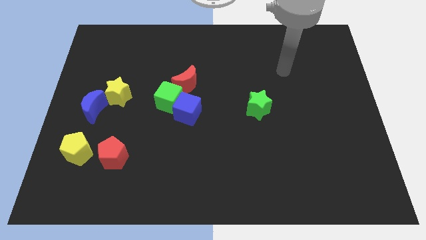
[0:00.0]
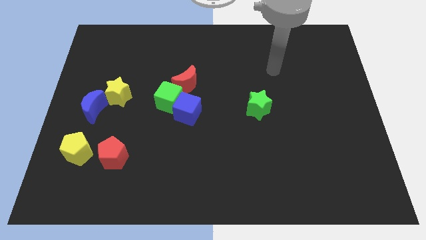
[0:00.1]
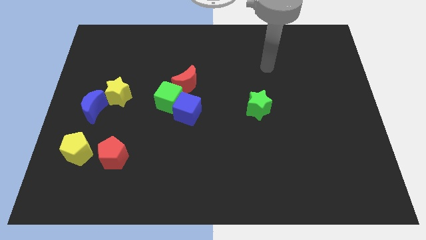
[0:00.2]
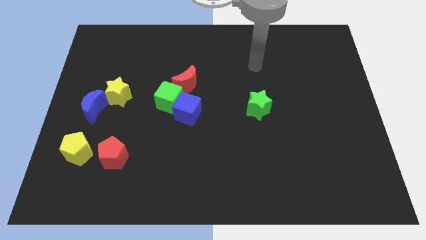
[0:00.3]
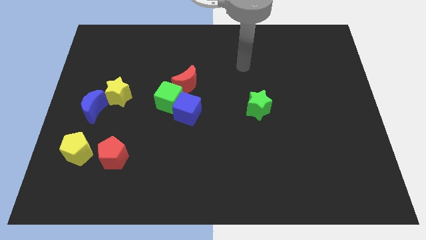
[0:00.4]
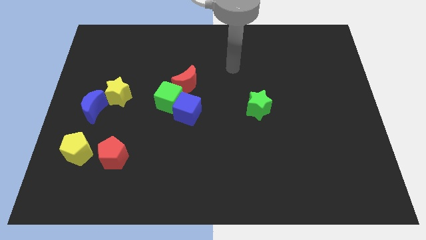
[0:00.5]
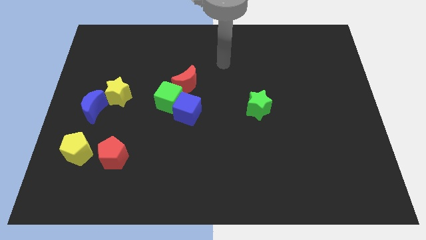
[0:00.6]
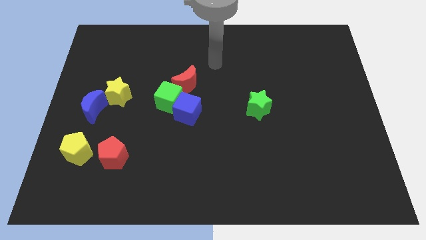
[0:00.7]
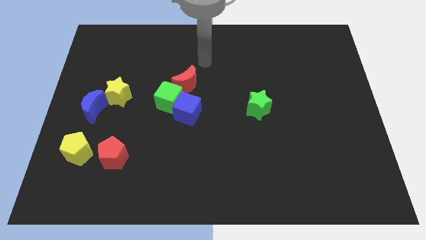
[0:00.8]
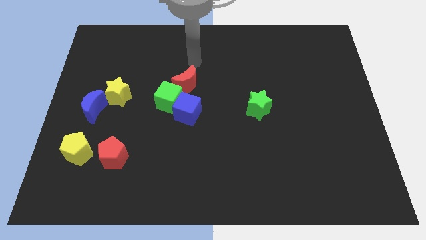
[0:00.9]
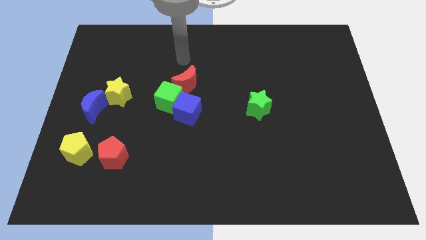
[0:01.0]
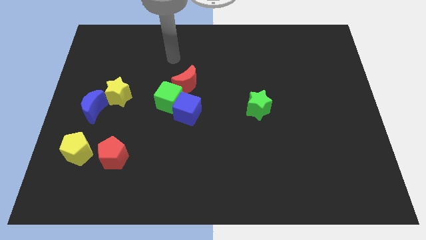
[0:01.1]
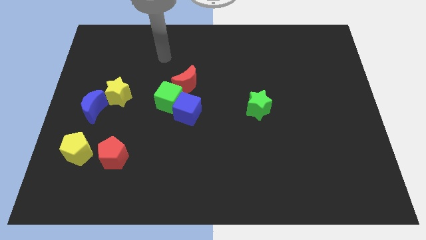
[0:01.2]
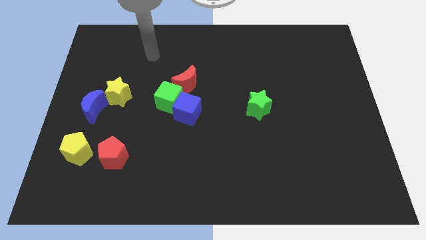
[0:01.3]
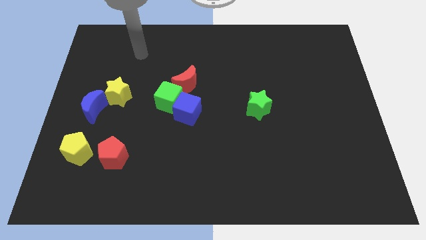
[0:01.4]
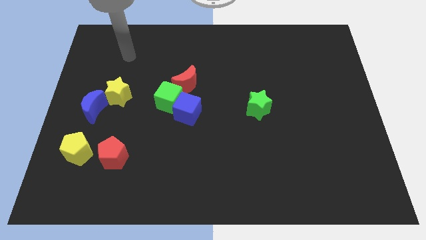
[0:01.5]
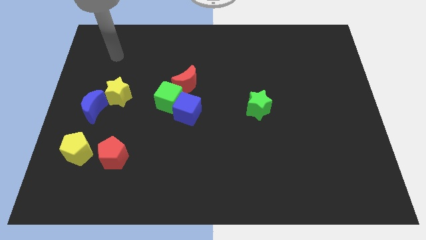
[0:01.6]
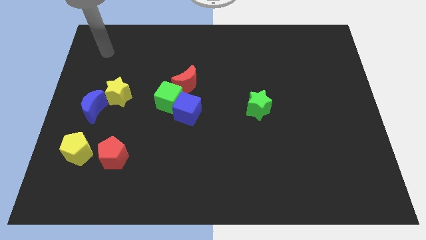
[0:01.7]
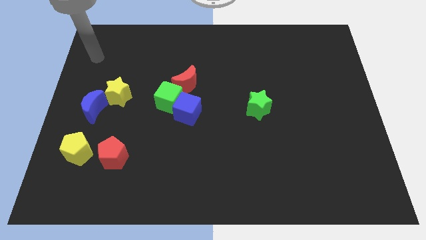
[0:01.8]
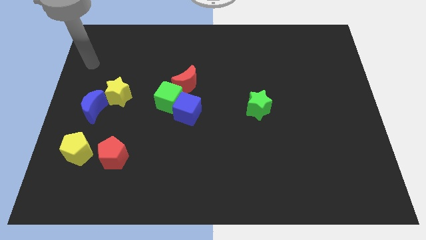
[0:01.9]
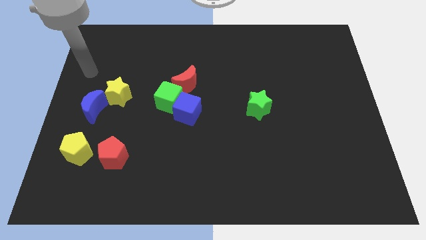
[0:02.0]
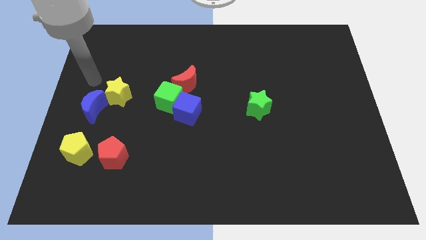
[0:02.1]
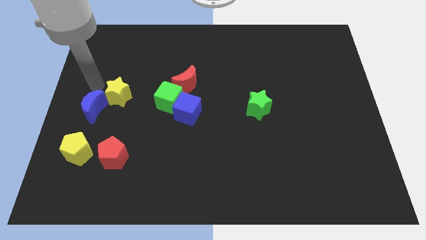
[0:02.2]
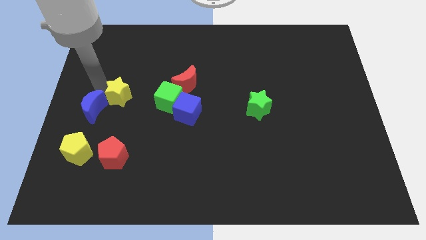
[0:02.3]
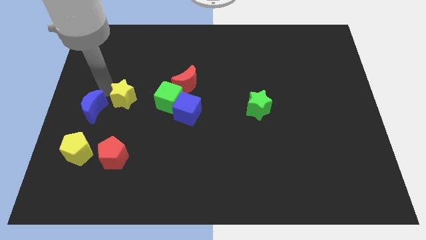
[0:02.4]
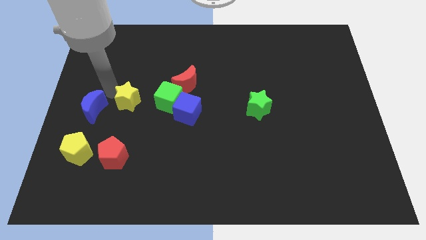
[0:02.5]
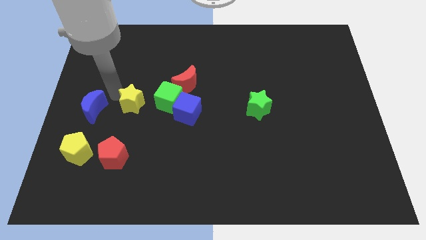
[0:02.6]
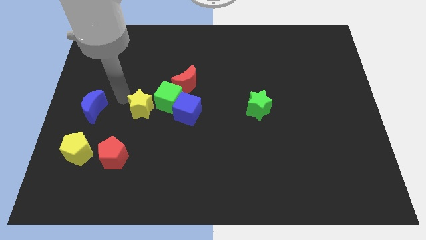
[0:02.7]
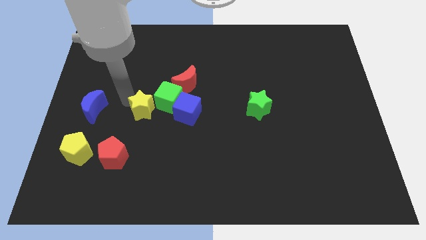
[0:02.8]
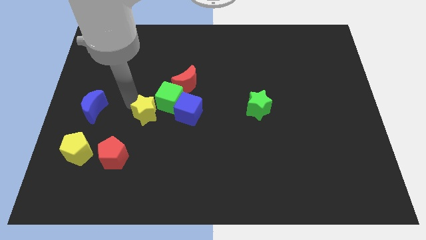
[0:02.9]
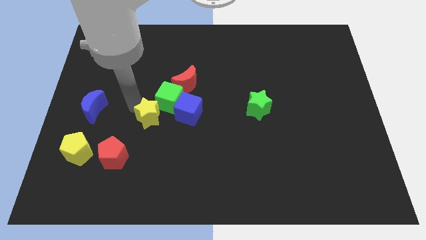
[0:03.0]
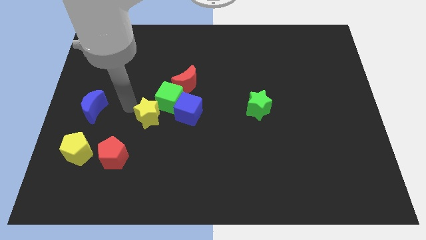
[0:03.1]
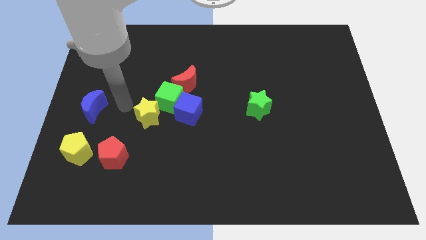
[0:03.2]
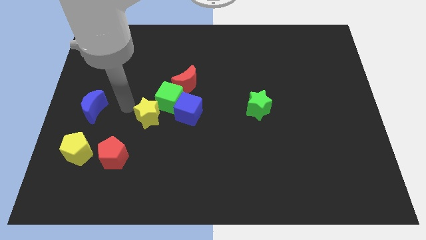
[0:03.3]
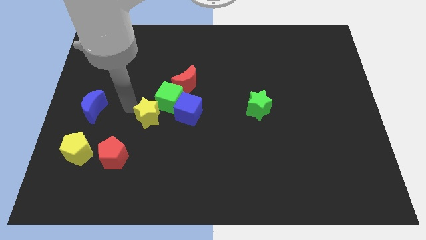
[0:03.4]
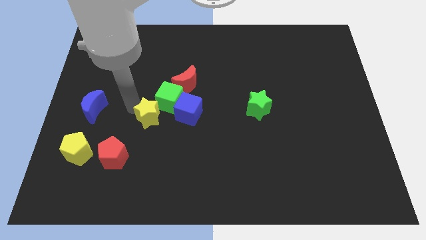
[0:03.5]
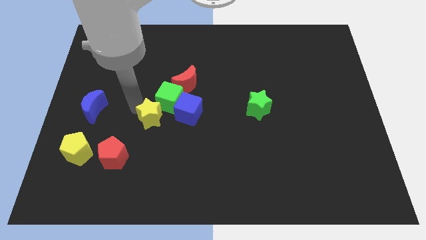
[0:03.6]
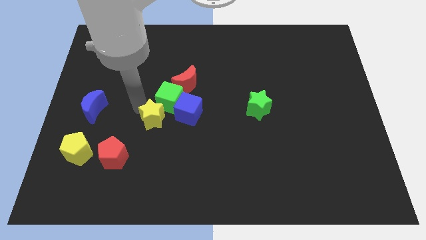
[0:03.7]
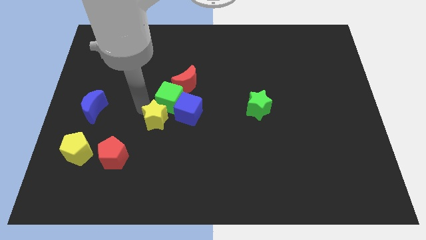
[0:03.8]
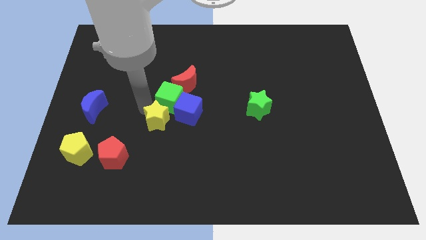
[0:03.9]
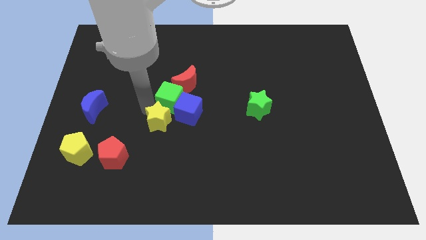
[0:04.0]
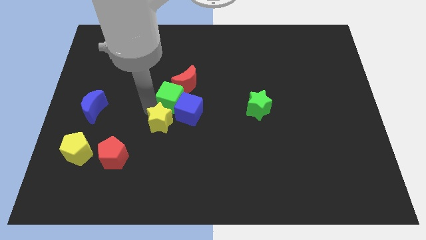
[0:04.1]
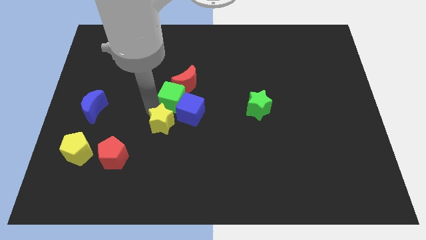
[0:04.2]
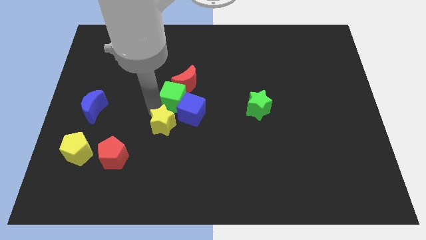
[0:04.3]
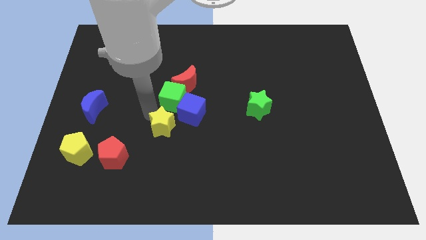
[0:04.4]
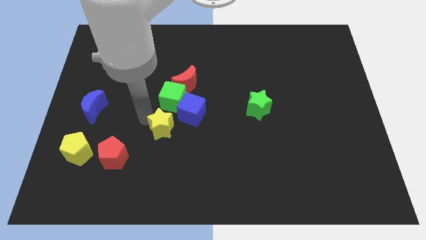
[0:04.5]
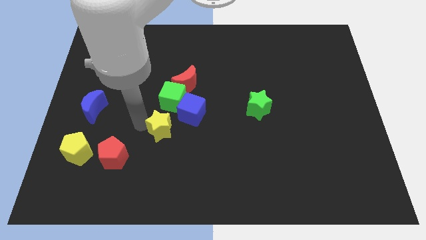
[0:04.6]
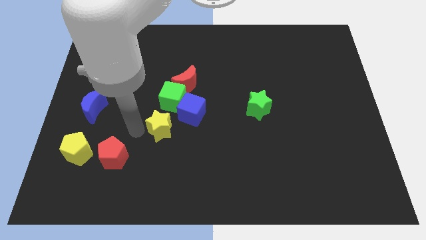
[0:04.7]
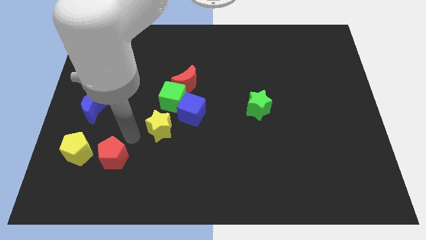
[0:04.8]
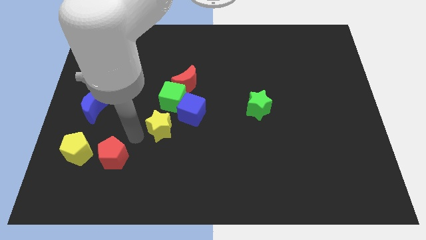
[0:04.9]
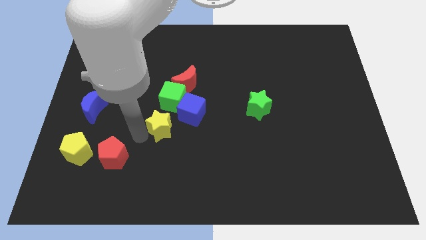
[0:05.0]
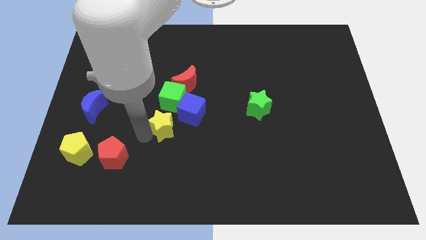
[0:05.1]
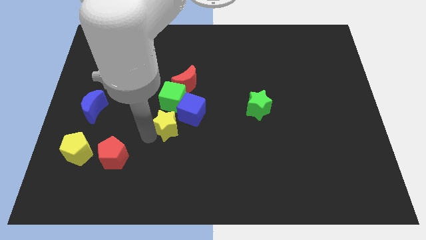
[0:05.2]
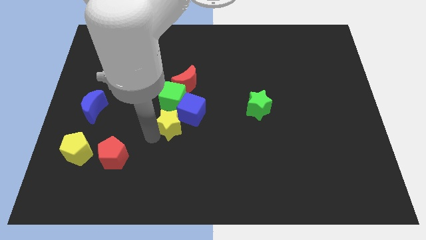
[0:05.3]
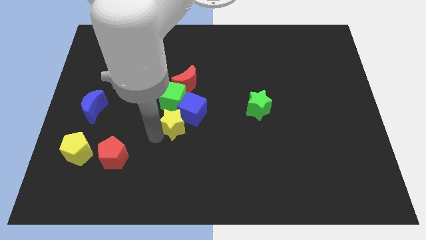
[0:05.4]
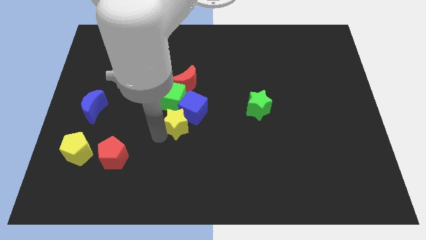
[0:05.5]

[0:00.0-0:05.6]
move the yellow star diagonally down and to the right of the green cube

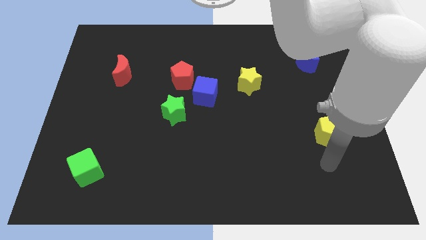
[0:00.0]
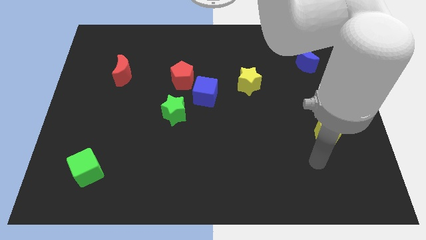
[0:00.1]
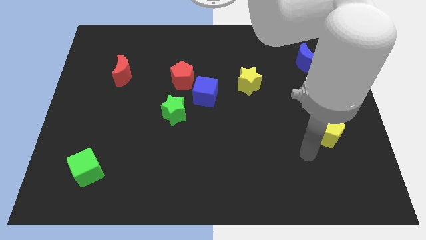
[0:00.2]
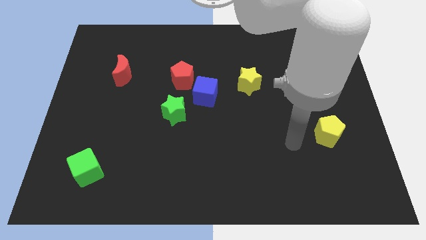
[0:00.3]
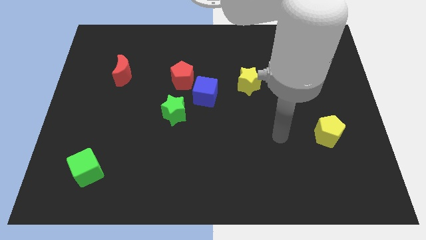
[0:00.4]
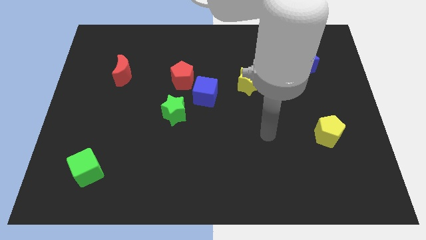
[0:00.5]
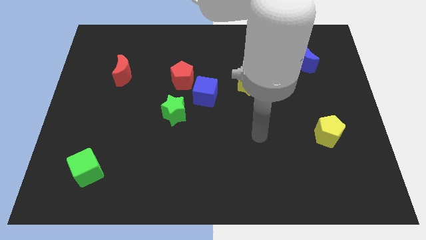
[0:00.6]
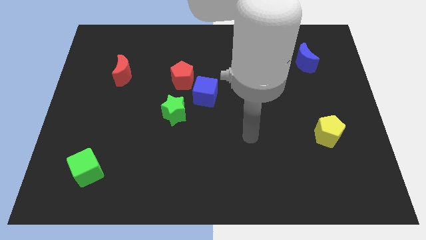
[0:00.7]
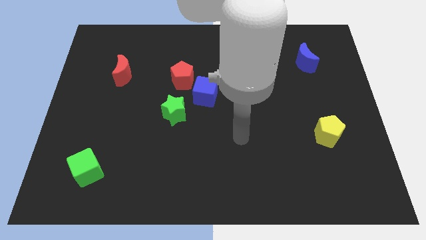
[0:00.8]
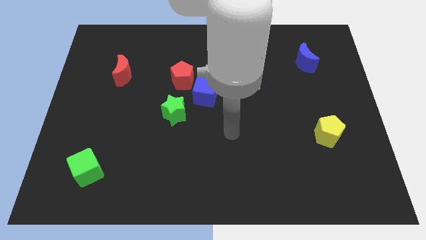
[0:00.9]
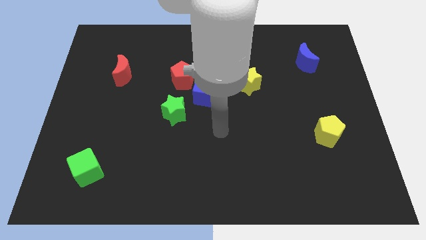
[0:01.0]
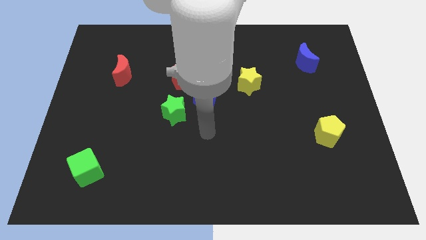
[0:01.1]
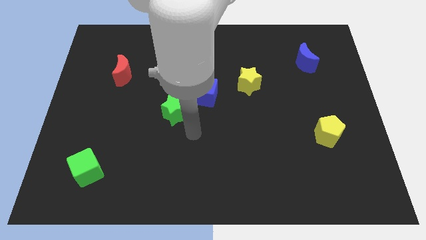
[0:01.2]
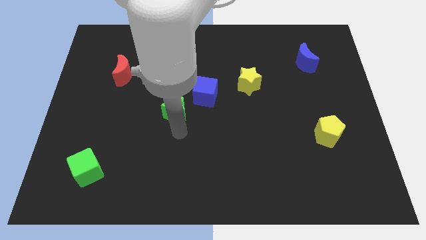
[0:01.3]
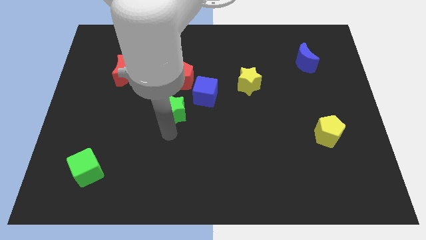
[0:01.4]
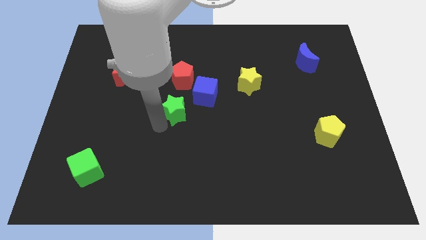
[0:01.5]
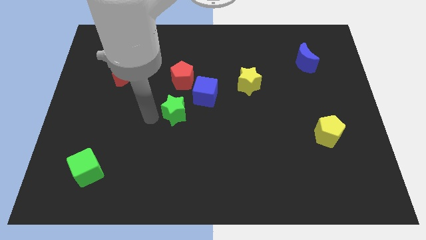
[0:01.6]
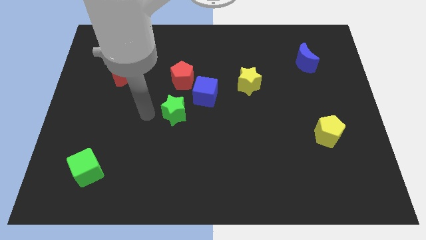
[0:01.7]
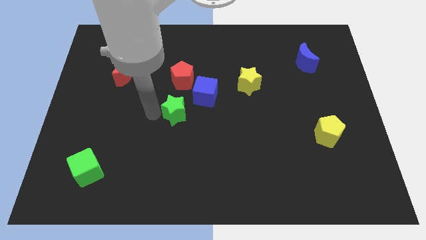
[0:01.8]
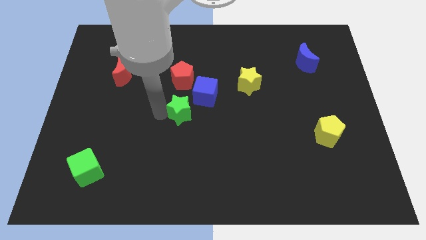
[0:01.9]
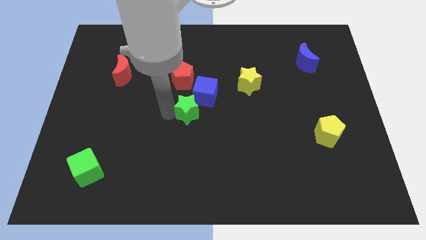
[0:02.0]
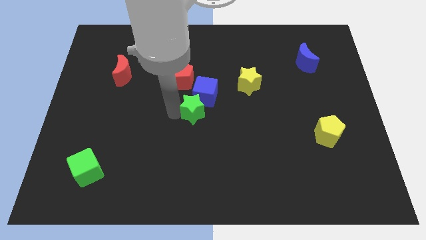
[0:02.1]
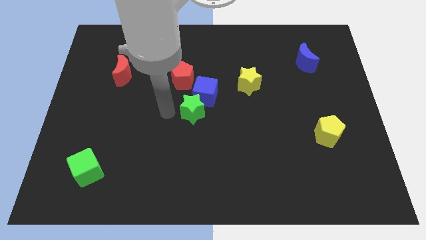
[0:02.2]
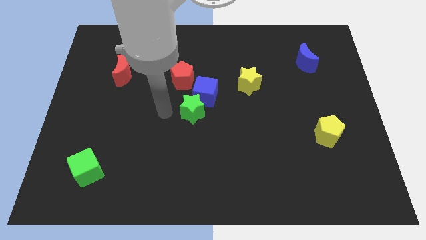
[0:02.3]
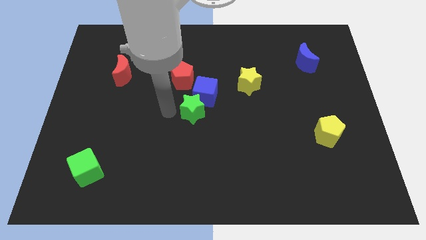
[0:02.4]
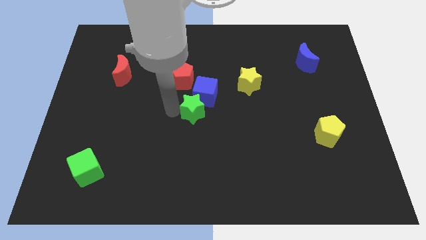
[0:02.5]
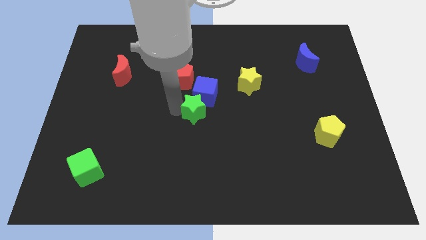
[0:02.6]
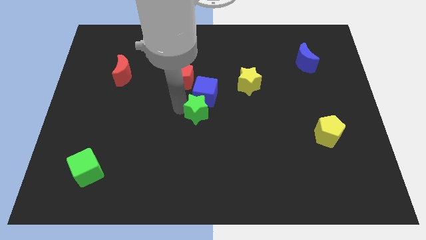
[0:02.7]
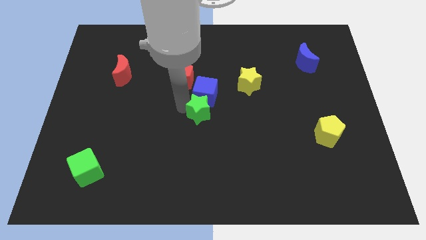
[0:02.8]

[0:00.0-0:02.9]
push the green star diagonally down and to the right of the blue cube
